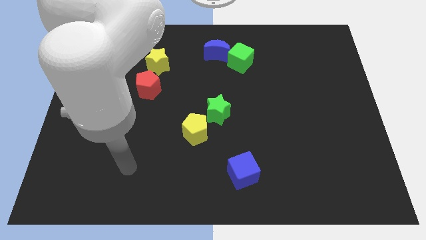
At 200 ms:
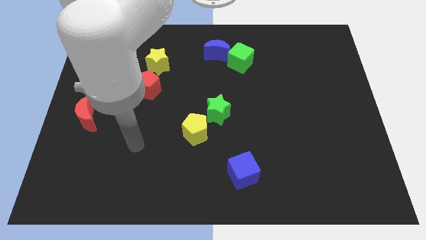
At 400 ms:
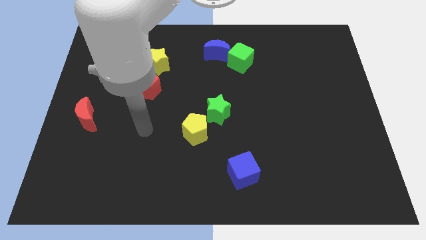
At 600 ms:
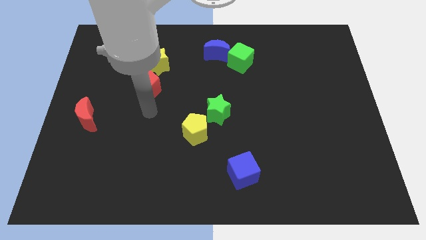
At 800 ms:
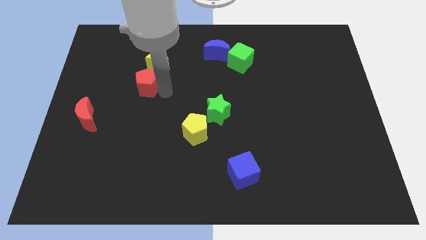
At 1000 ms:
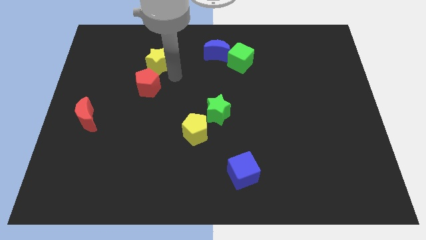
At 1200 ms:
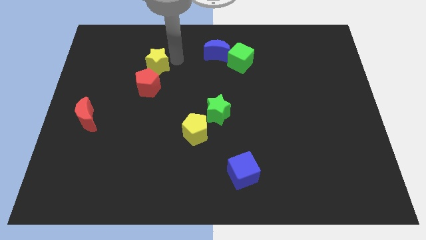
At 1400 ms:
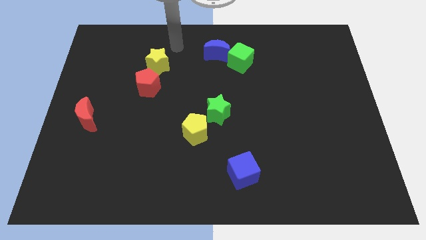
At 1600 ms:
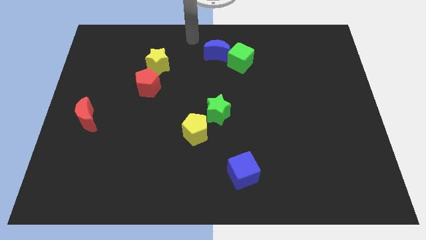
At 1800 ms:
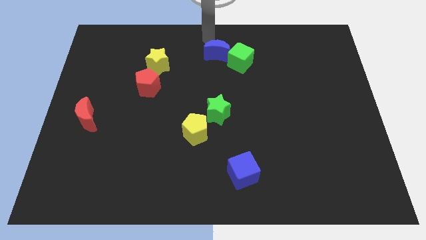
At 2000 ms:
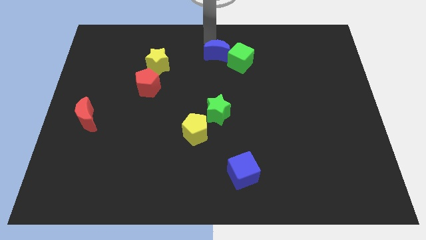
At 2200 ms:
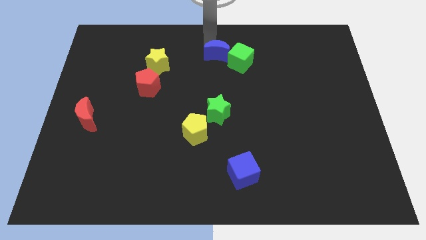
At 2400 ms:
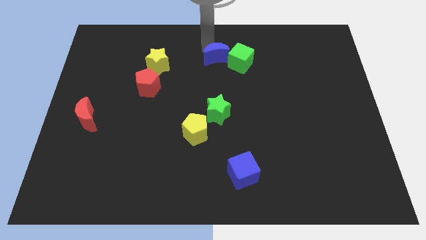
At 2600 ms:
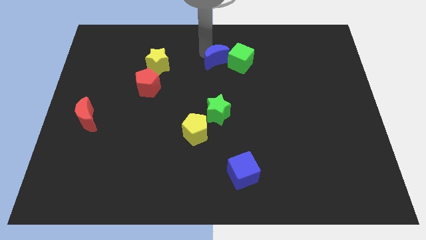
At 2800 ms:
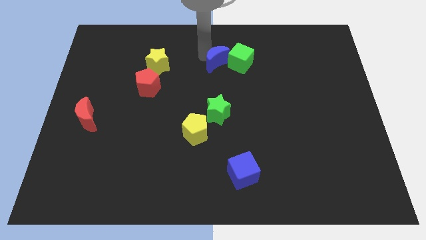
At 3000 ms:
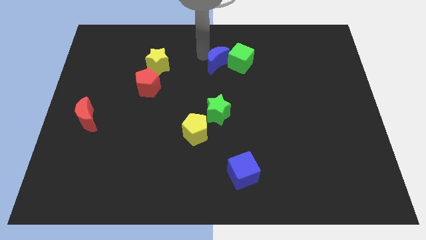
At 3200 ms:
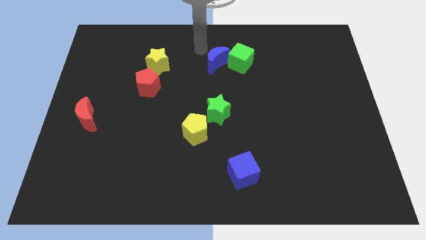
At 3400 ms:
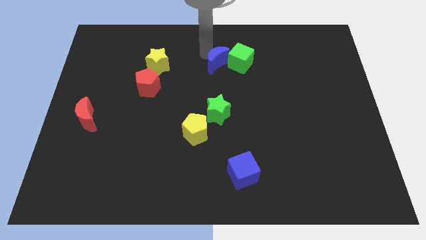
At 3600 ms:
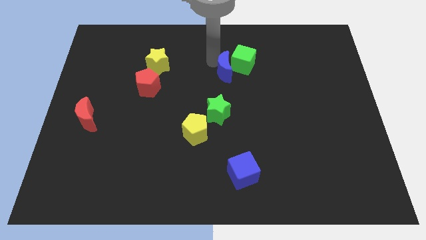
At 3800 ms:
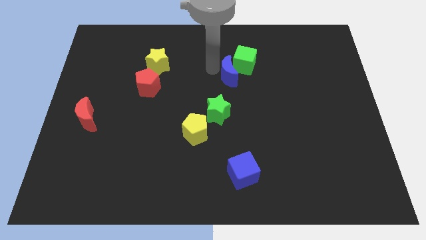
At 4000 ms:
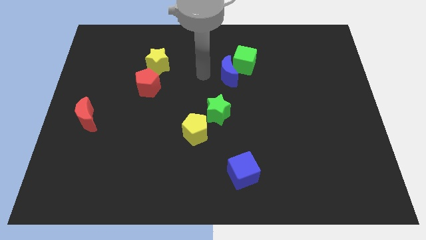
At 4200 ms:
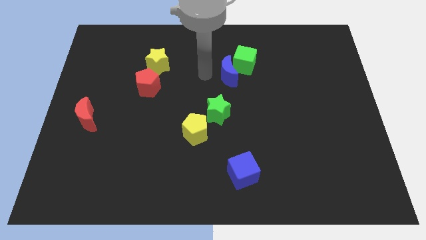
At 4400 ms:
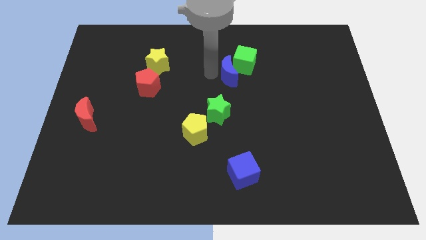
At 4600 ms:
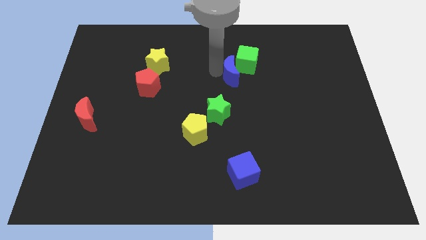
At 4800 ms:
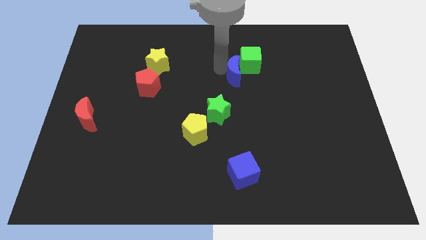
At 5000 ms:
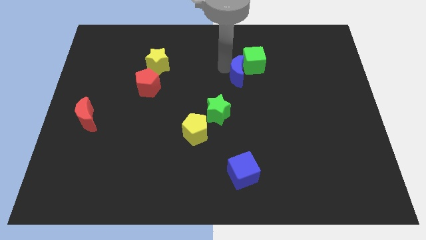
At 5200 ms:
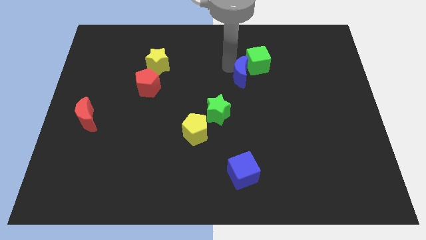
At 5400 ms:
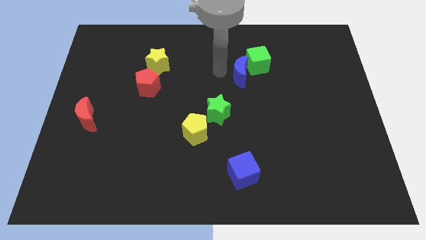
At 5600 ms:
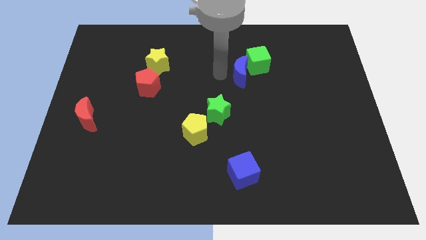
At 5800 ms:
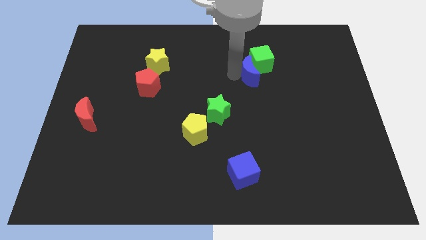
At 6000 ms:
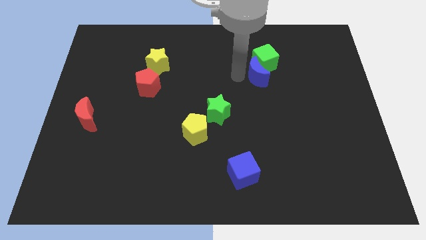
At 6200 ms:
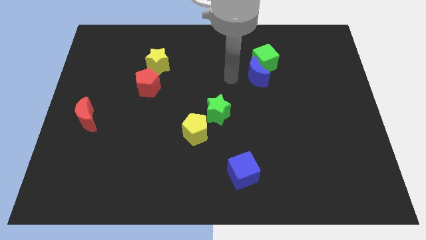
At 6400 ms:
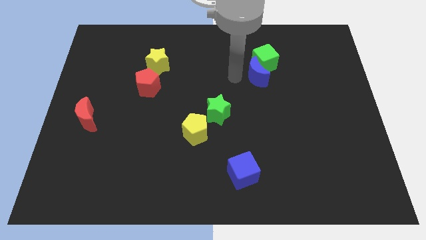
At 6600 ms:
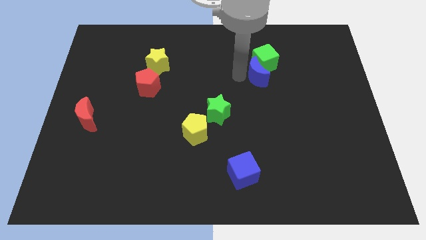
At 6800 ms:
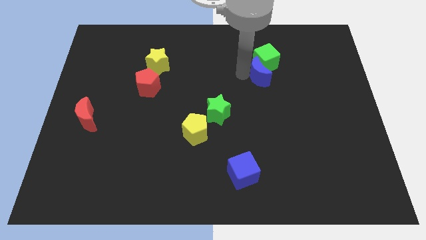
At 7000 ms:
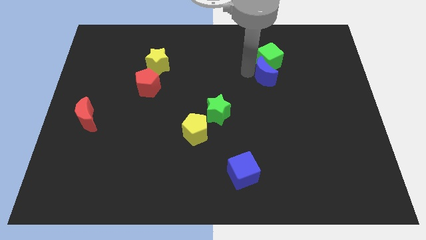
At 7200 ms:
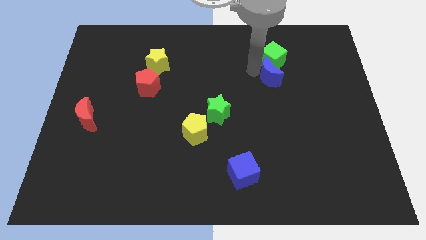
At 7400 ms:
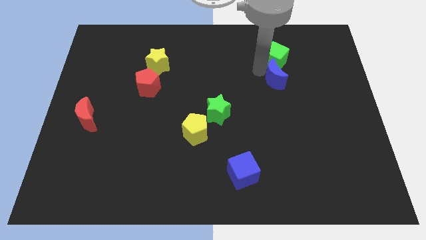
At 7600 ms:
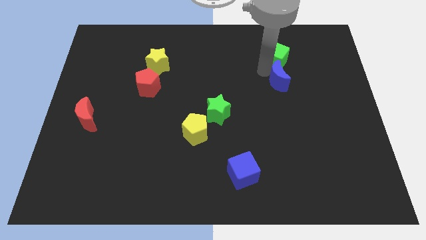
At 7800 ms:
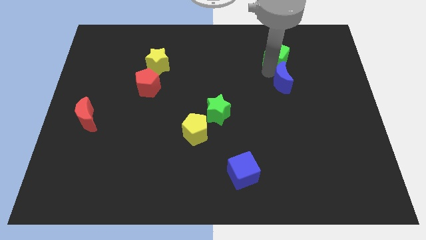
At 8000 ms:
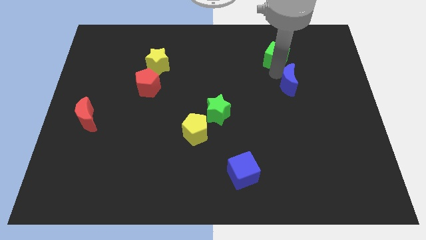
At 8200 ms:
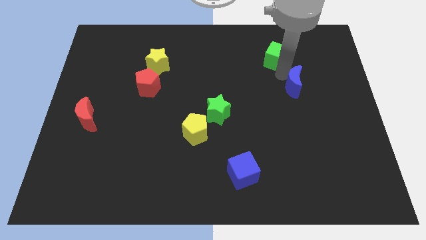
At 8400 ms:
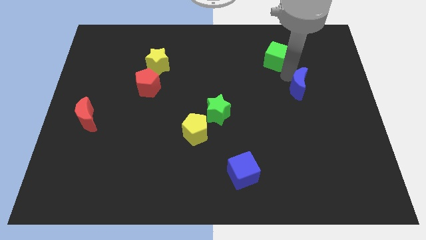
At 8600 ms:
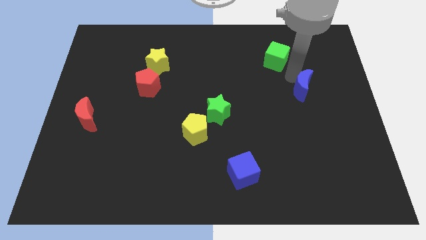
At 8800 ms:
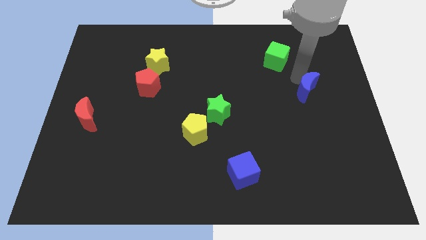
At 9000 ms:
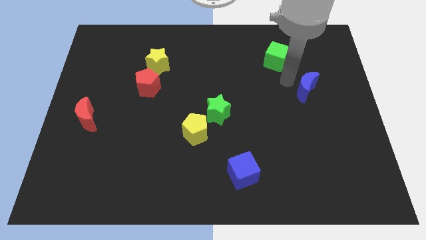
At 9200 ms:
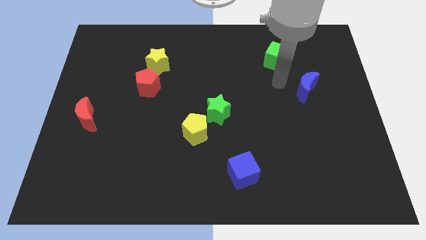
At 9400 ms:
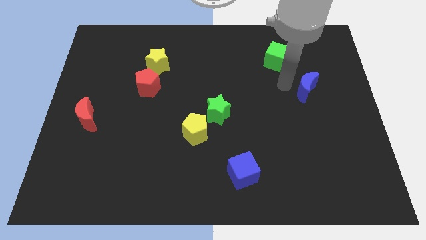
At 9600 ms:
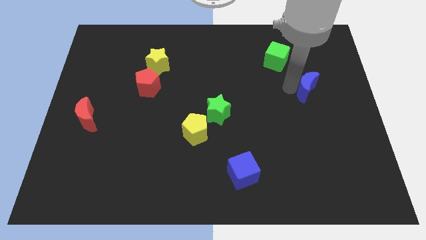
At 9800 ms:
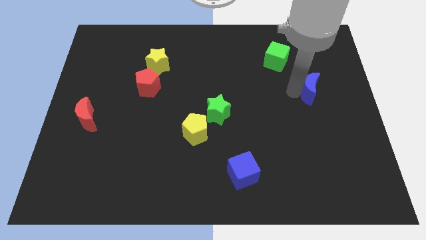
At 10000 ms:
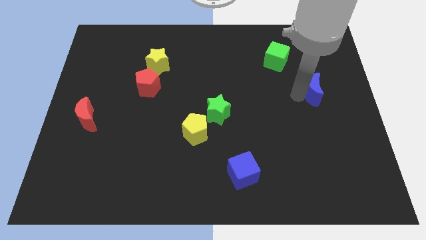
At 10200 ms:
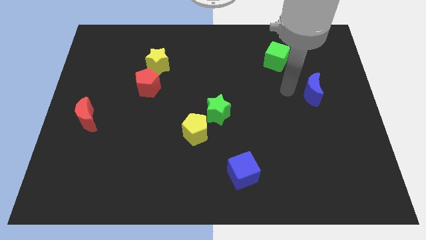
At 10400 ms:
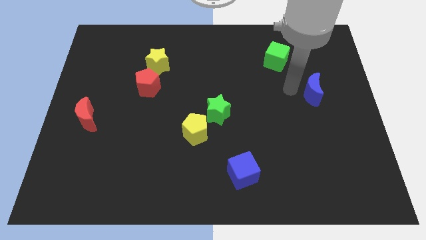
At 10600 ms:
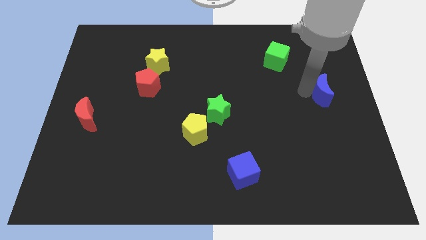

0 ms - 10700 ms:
put the blue moon to the right side of the board

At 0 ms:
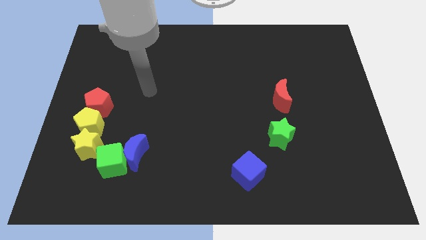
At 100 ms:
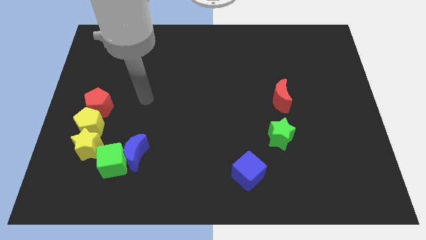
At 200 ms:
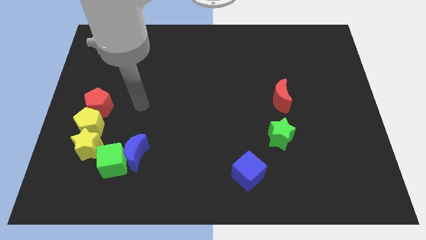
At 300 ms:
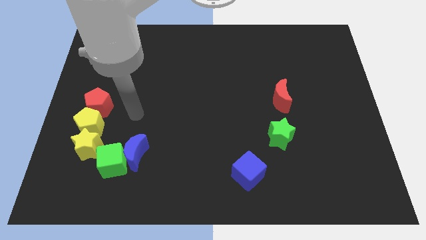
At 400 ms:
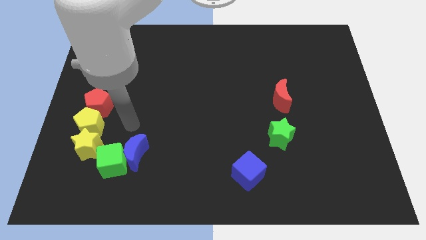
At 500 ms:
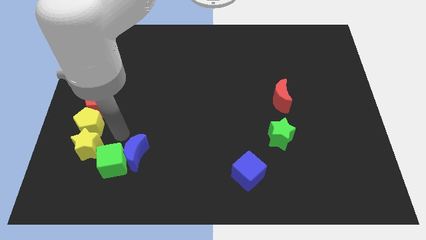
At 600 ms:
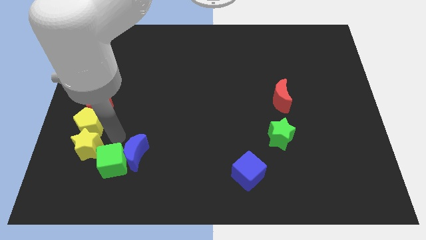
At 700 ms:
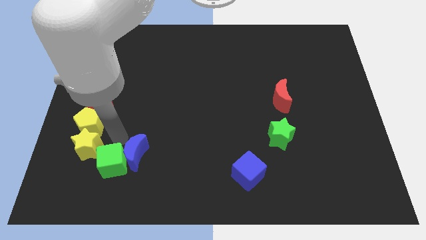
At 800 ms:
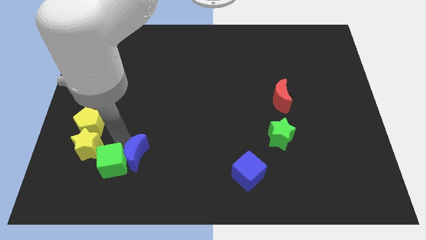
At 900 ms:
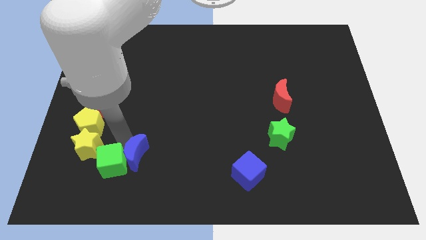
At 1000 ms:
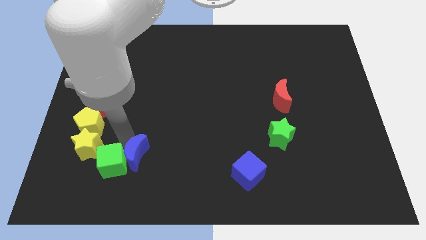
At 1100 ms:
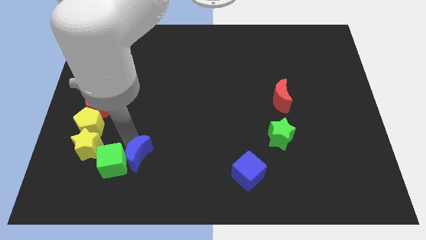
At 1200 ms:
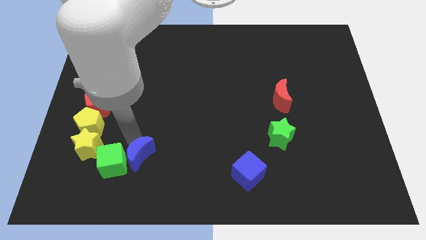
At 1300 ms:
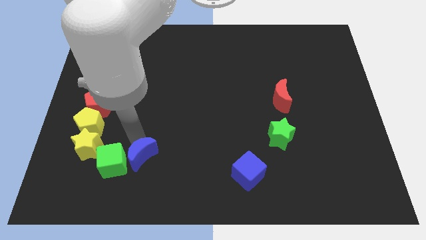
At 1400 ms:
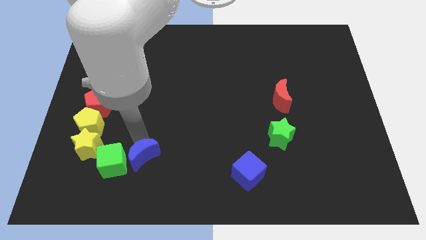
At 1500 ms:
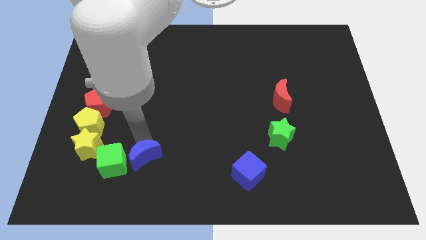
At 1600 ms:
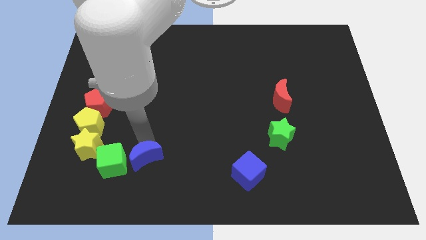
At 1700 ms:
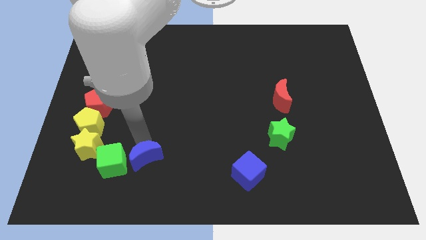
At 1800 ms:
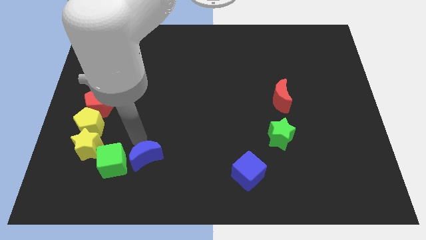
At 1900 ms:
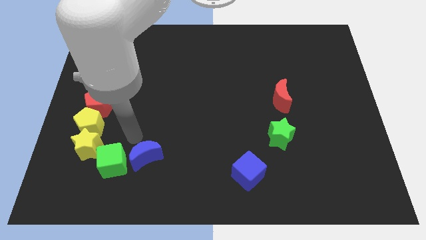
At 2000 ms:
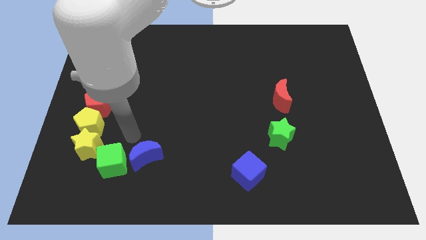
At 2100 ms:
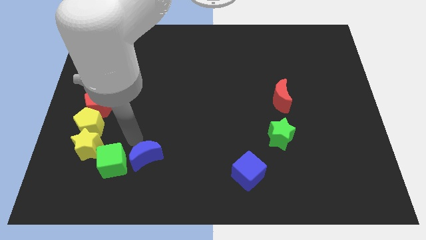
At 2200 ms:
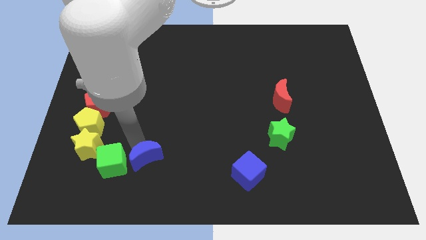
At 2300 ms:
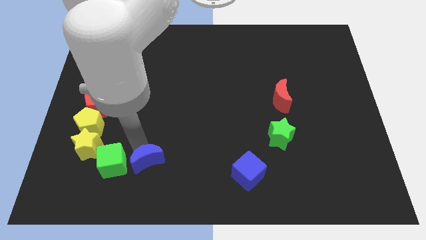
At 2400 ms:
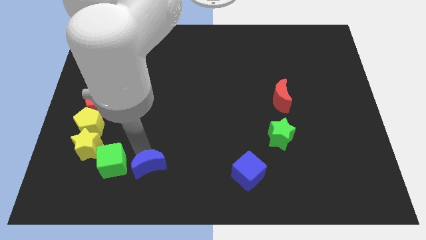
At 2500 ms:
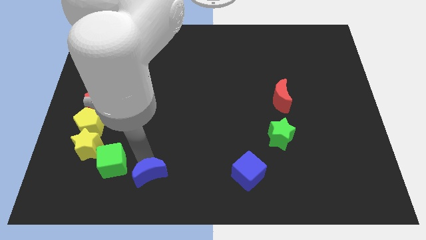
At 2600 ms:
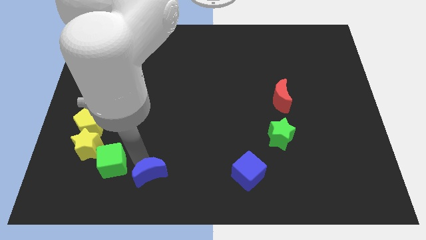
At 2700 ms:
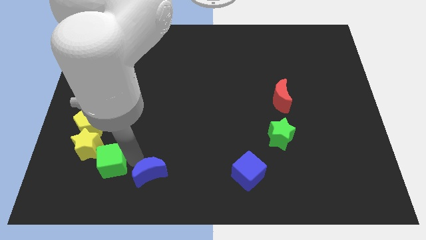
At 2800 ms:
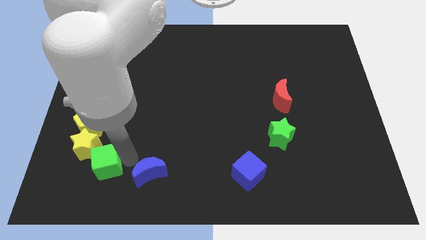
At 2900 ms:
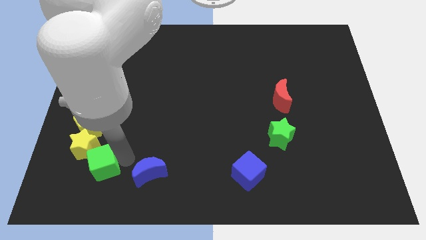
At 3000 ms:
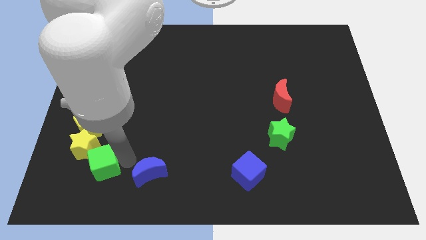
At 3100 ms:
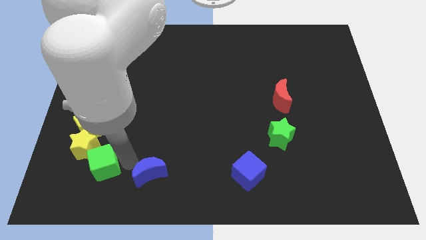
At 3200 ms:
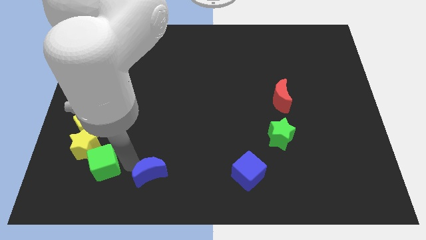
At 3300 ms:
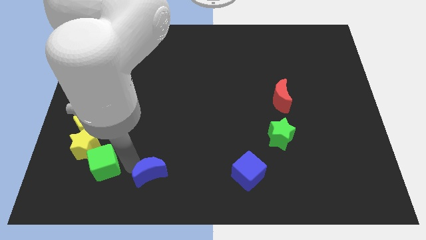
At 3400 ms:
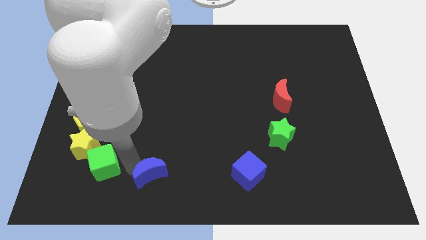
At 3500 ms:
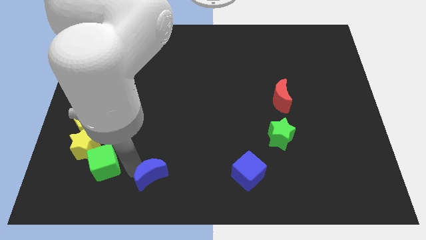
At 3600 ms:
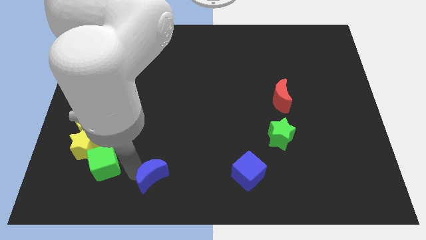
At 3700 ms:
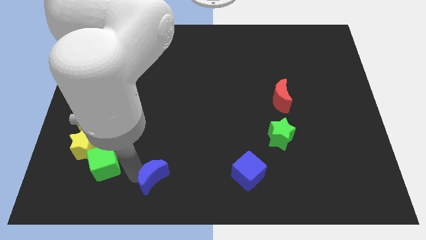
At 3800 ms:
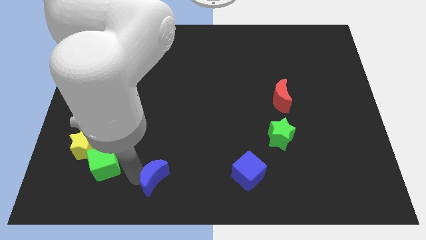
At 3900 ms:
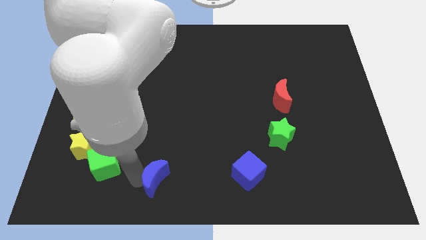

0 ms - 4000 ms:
move the blue moon to the bottom side
